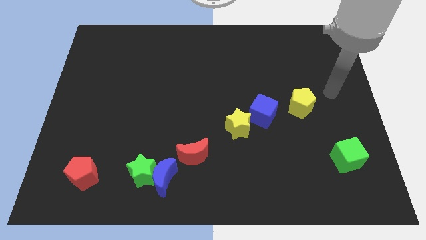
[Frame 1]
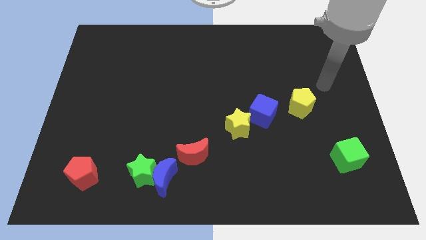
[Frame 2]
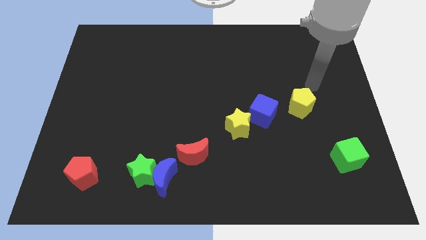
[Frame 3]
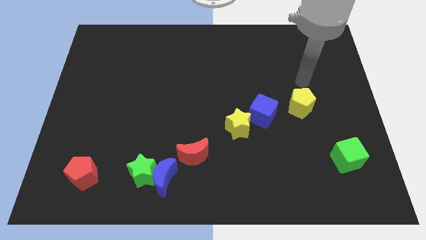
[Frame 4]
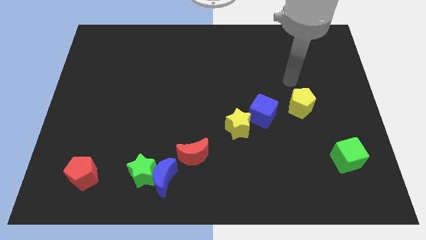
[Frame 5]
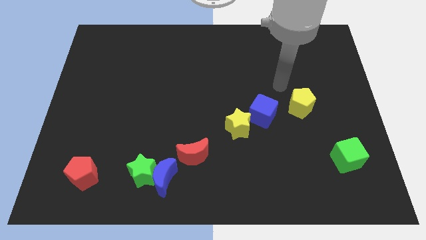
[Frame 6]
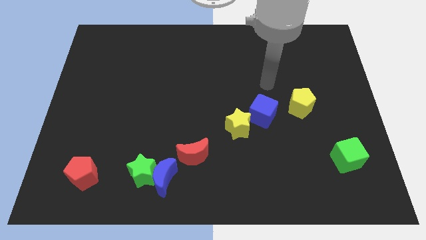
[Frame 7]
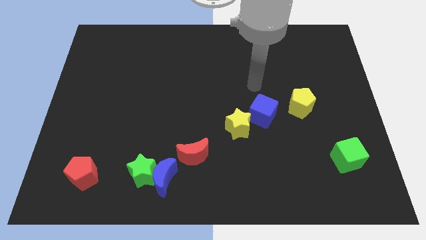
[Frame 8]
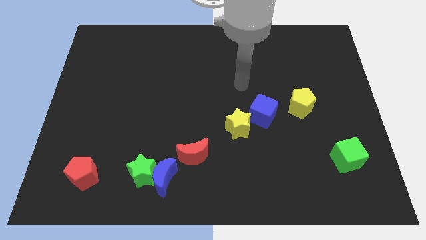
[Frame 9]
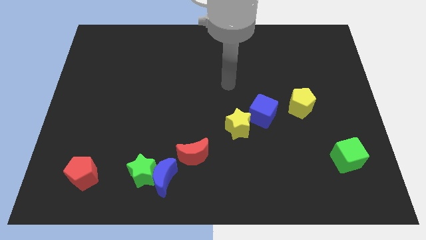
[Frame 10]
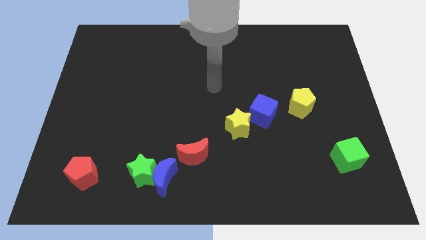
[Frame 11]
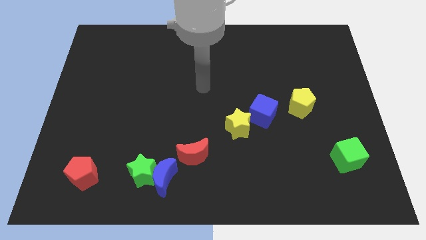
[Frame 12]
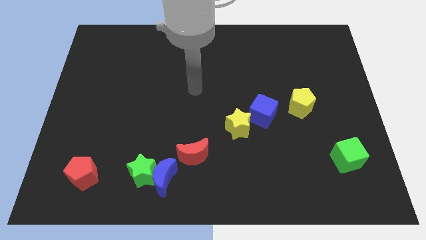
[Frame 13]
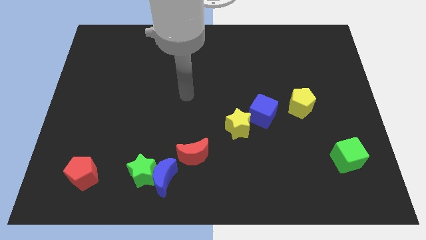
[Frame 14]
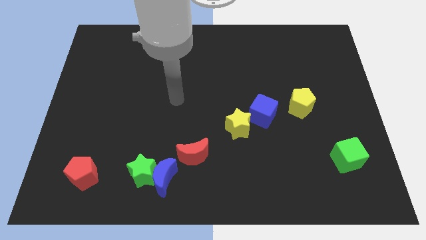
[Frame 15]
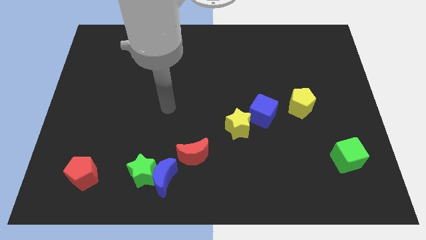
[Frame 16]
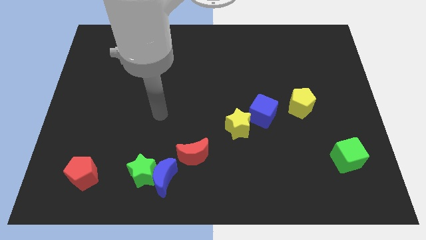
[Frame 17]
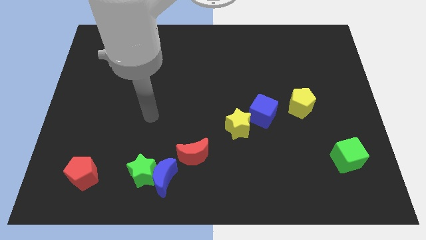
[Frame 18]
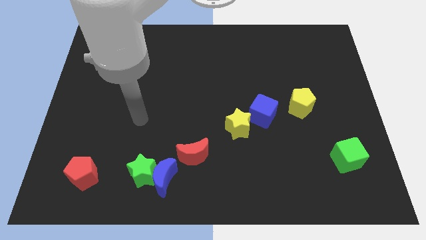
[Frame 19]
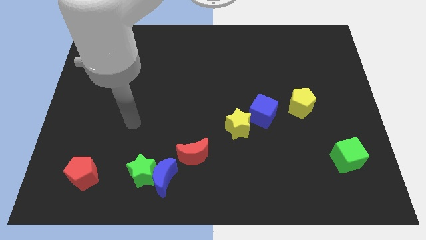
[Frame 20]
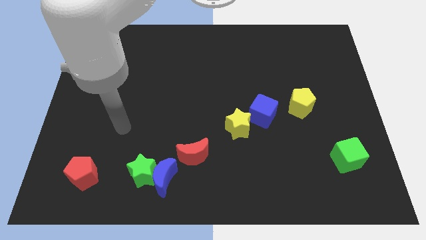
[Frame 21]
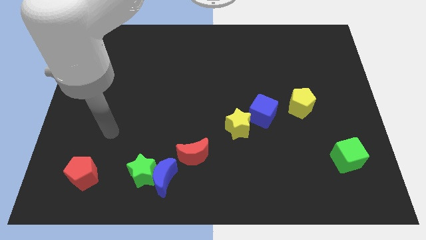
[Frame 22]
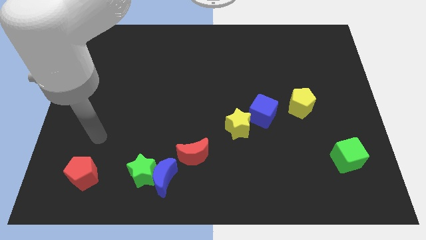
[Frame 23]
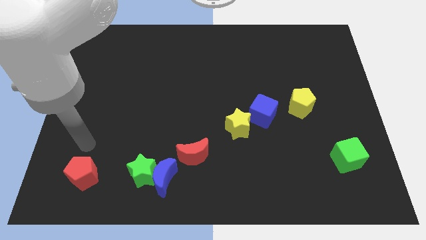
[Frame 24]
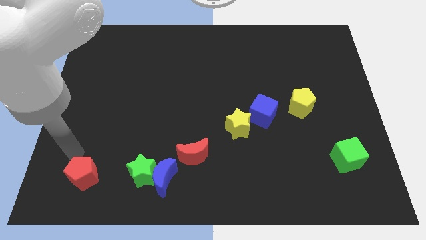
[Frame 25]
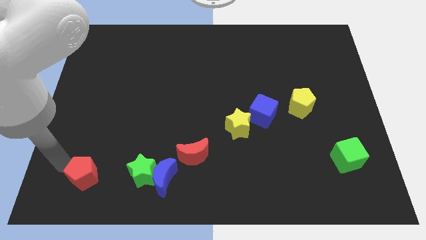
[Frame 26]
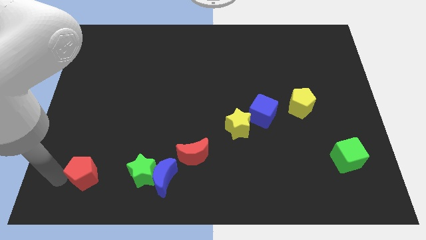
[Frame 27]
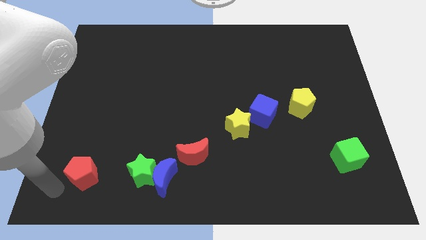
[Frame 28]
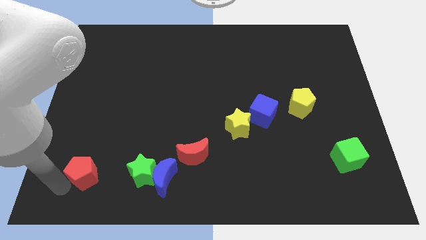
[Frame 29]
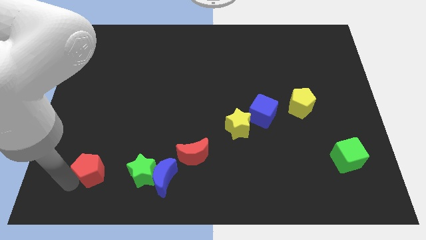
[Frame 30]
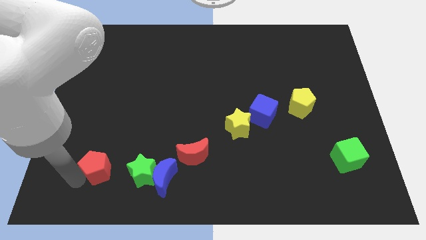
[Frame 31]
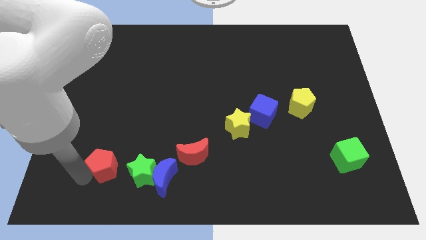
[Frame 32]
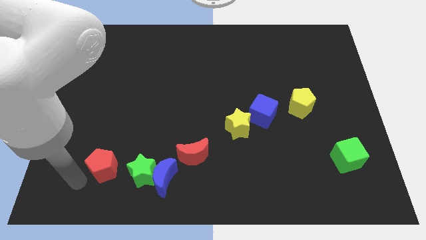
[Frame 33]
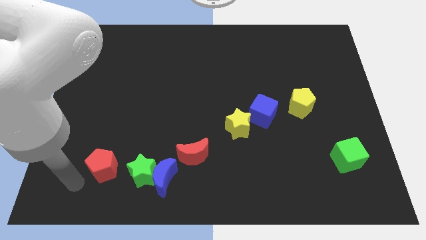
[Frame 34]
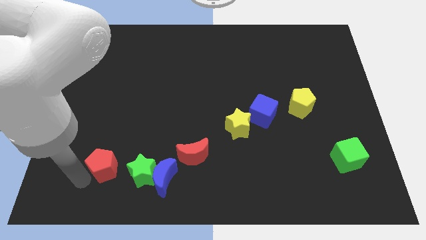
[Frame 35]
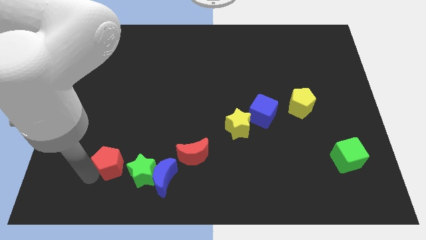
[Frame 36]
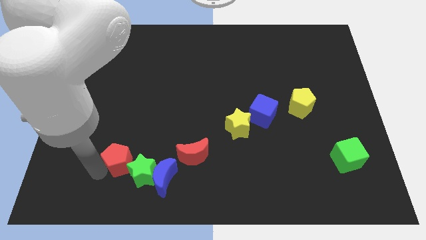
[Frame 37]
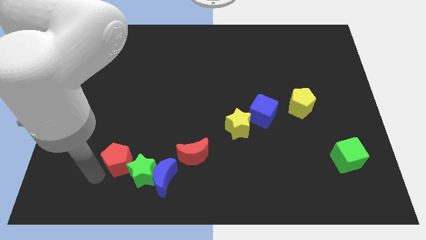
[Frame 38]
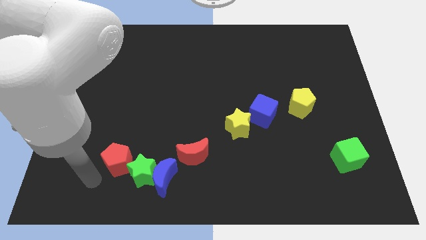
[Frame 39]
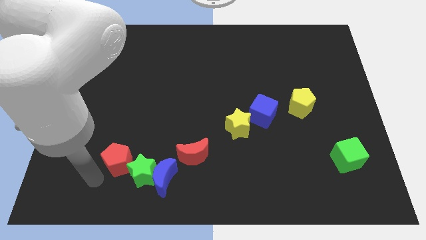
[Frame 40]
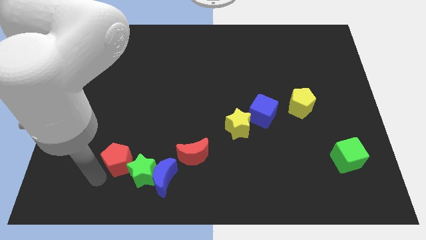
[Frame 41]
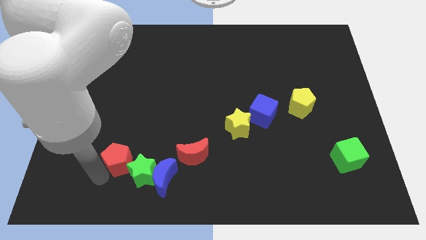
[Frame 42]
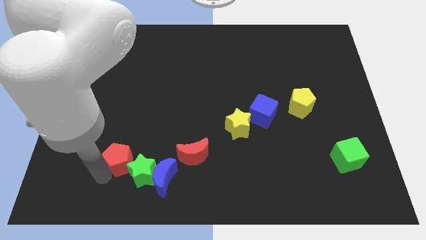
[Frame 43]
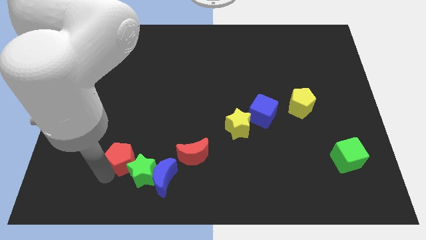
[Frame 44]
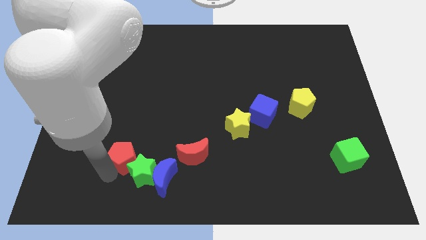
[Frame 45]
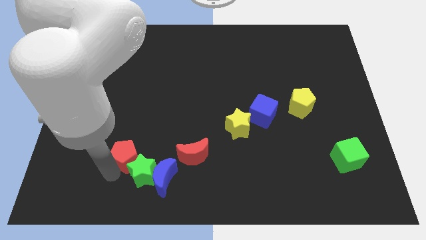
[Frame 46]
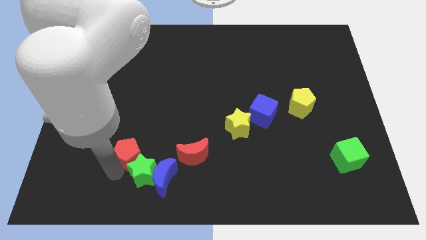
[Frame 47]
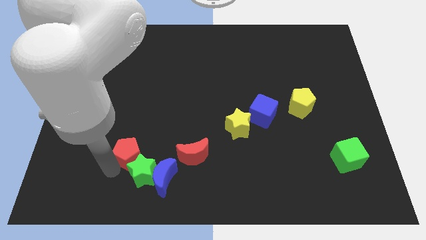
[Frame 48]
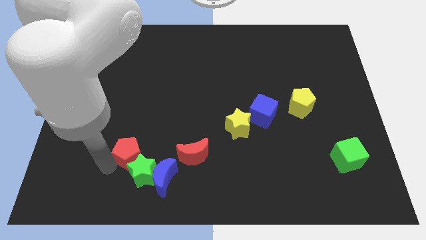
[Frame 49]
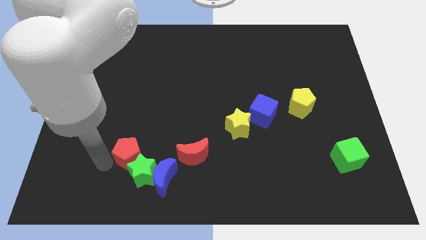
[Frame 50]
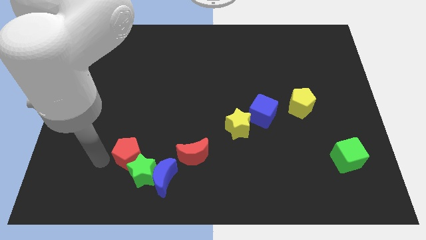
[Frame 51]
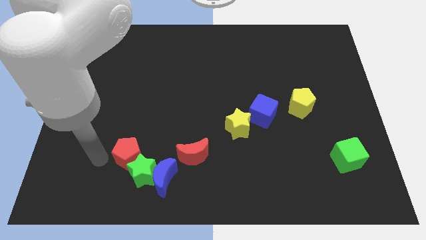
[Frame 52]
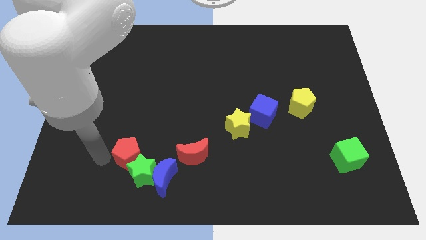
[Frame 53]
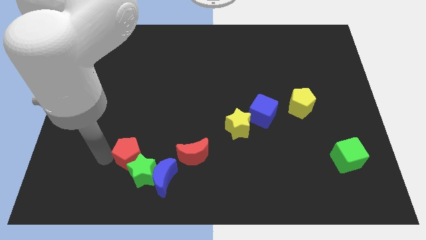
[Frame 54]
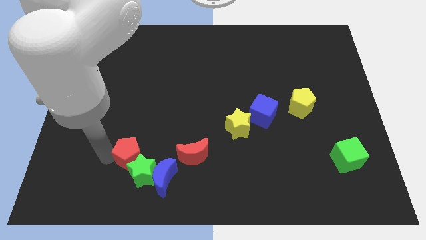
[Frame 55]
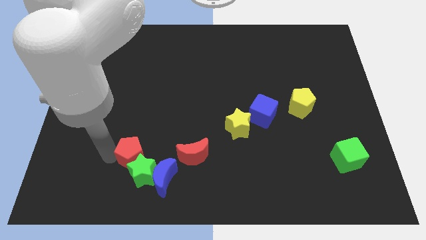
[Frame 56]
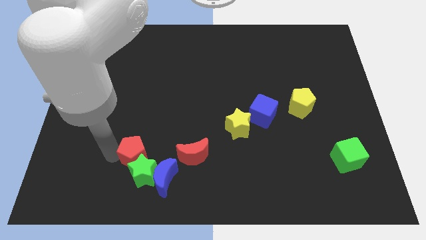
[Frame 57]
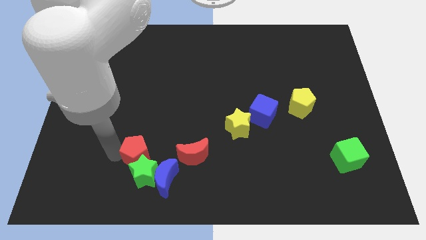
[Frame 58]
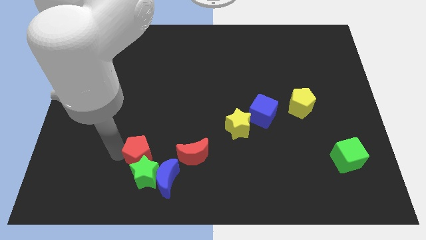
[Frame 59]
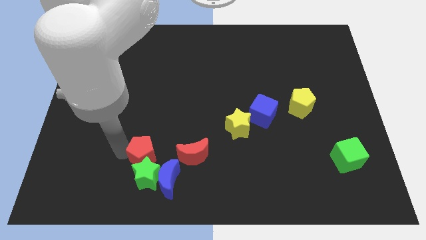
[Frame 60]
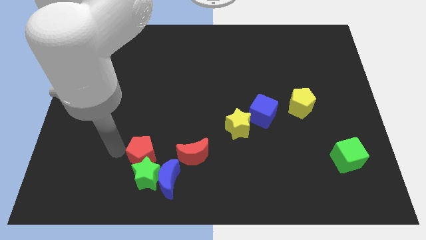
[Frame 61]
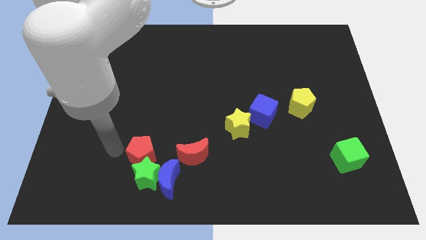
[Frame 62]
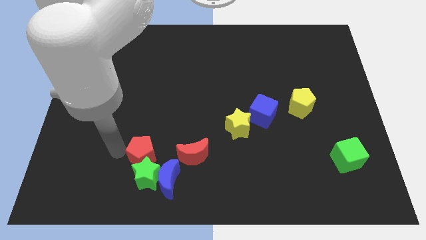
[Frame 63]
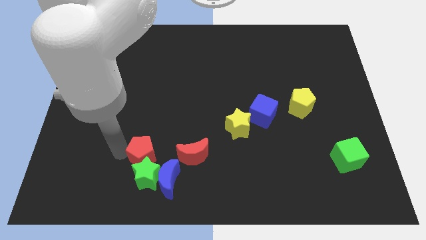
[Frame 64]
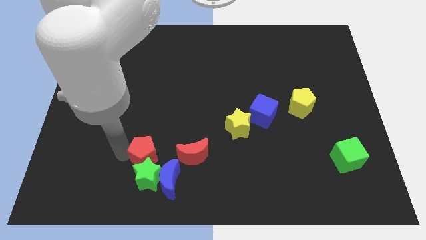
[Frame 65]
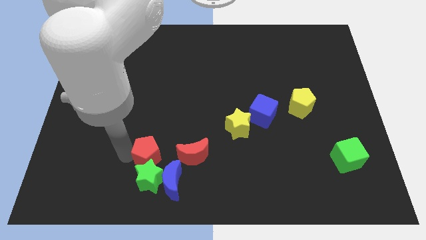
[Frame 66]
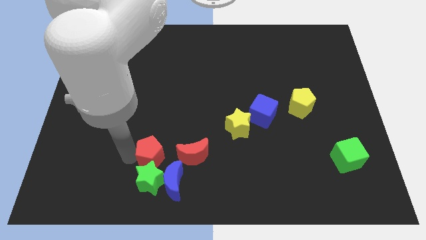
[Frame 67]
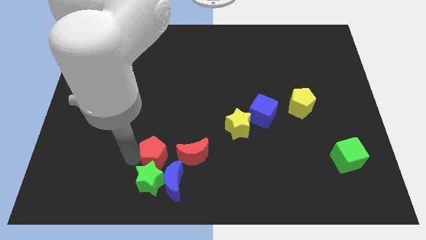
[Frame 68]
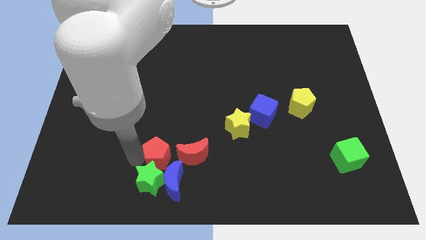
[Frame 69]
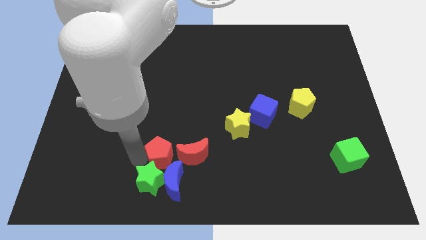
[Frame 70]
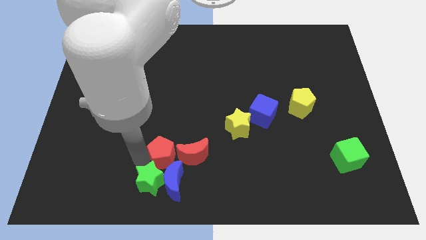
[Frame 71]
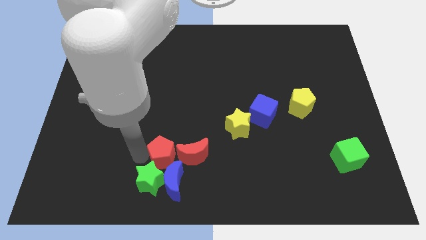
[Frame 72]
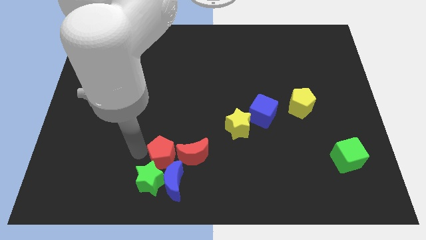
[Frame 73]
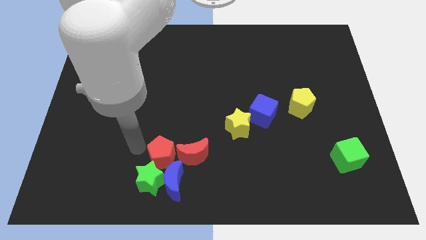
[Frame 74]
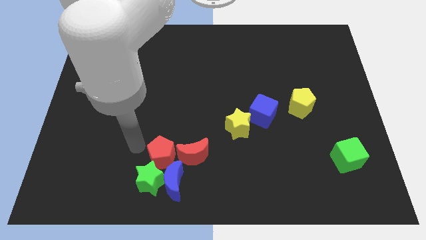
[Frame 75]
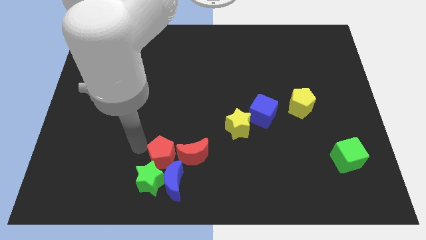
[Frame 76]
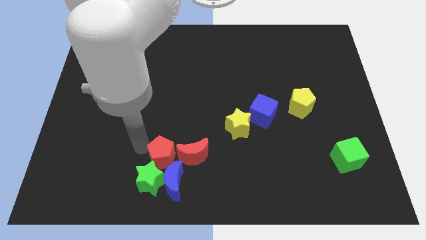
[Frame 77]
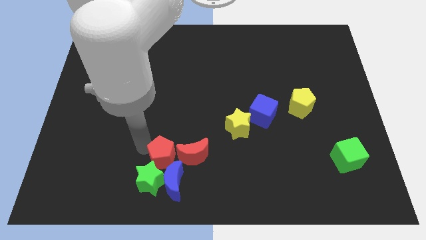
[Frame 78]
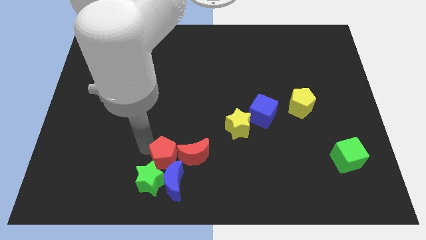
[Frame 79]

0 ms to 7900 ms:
push the red pentagon towards the red moon
